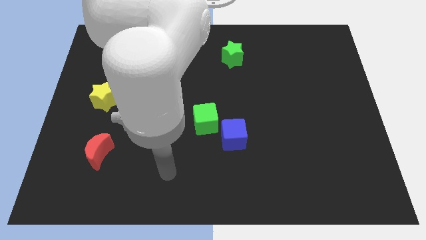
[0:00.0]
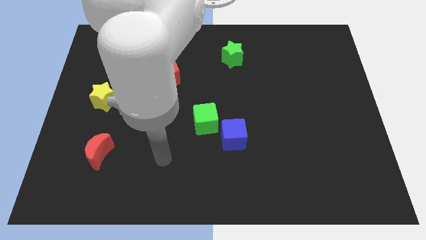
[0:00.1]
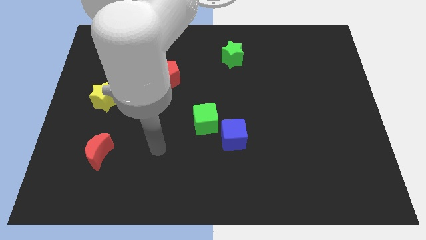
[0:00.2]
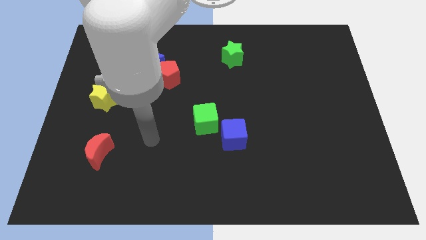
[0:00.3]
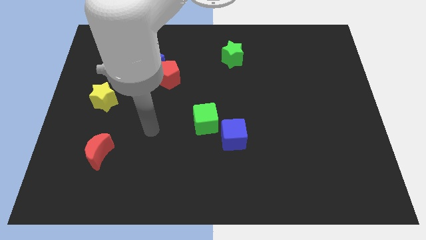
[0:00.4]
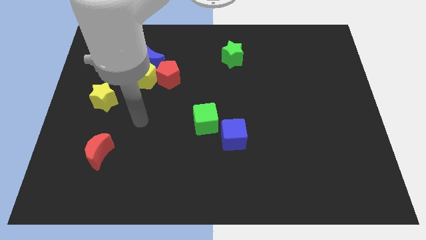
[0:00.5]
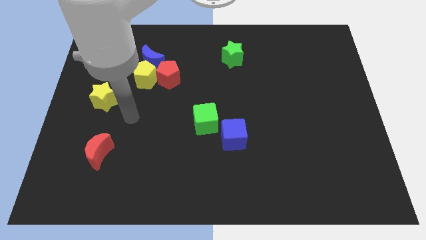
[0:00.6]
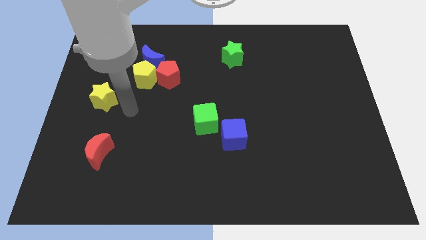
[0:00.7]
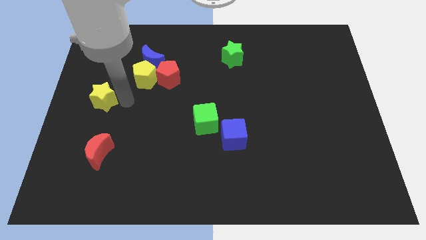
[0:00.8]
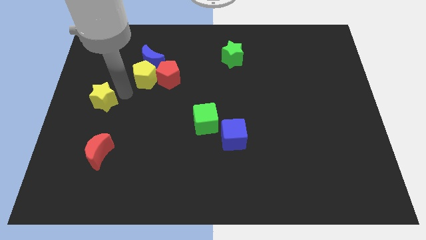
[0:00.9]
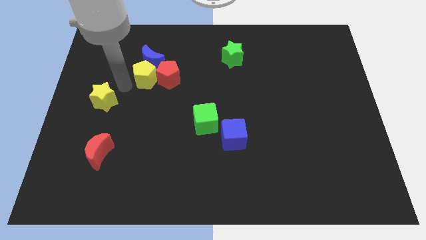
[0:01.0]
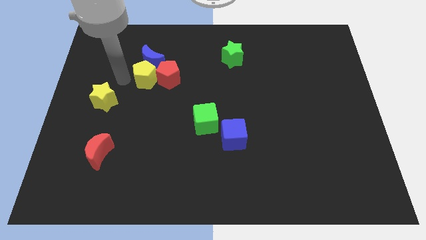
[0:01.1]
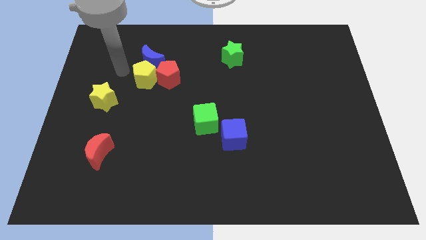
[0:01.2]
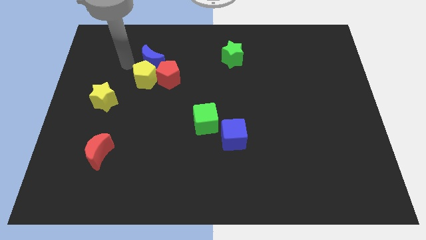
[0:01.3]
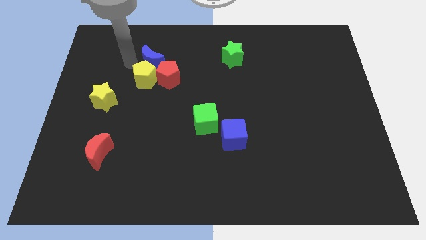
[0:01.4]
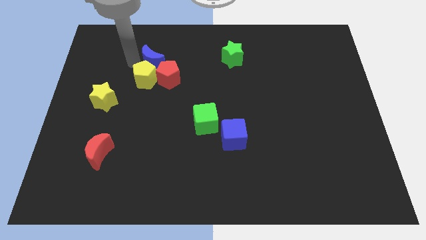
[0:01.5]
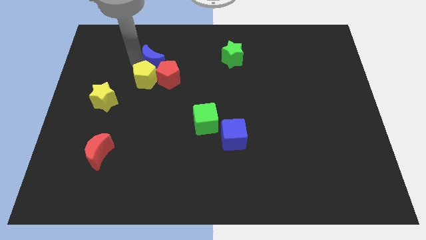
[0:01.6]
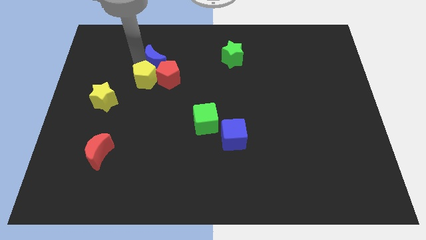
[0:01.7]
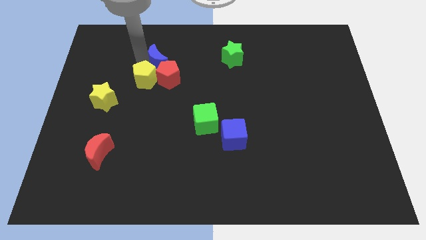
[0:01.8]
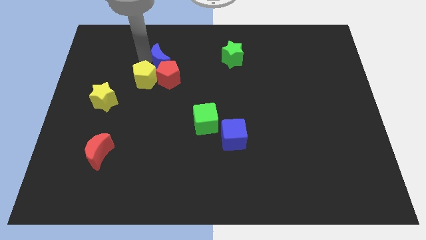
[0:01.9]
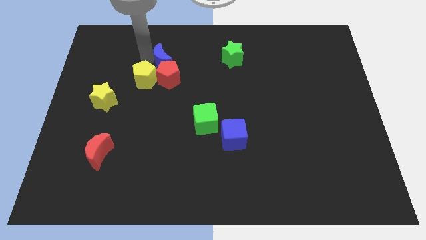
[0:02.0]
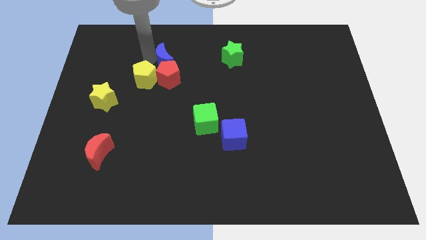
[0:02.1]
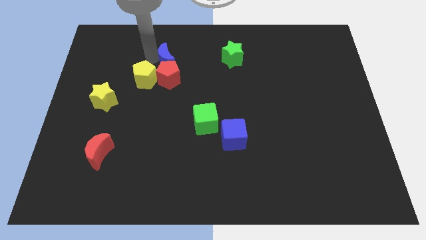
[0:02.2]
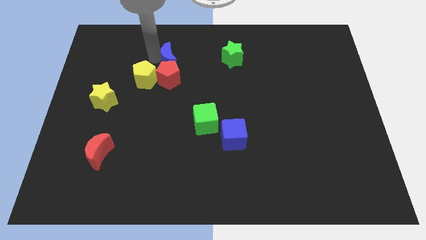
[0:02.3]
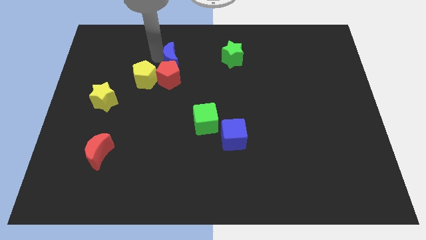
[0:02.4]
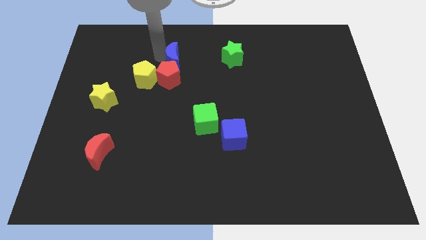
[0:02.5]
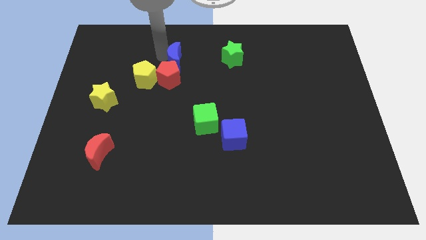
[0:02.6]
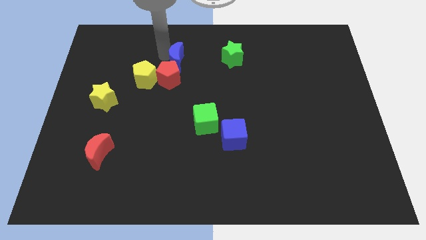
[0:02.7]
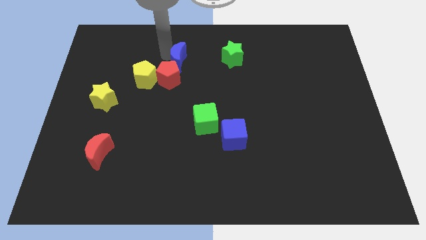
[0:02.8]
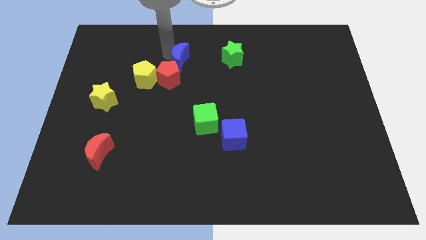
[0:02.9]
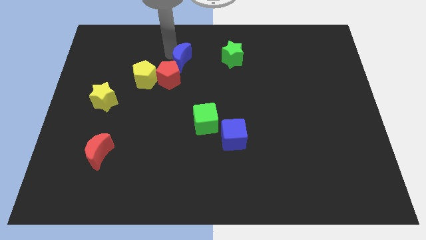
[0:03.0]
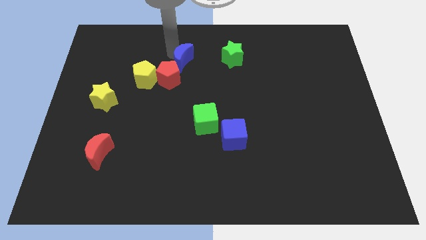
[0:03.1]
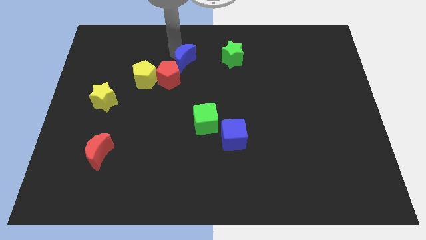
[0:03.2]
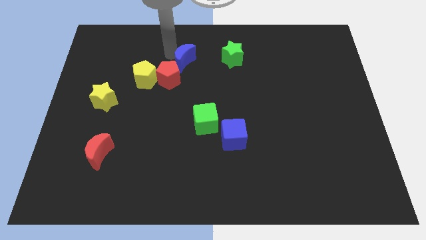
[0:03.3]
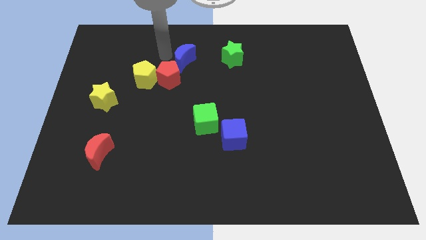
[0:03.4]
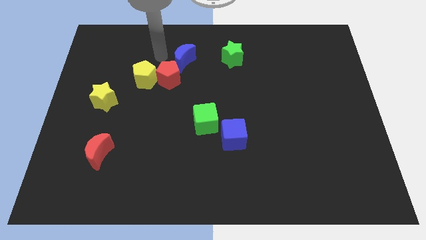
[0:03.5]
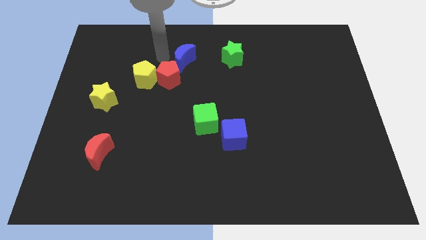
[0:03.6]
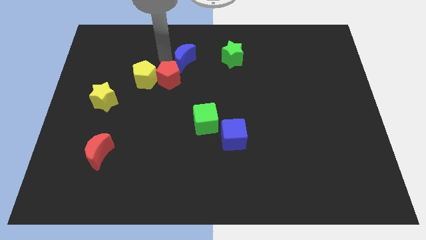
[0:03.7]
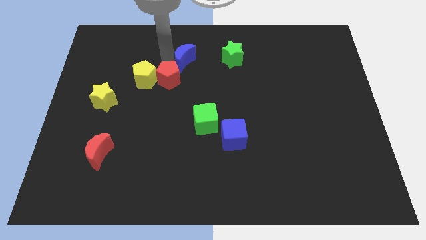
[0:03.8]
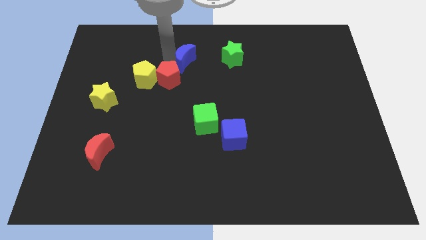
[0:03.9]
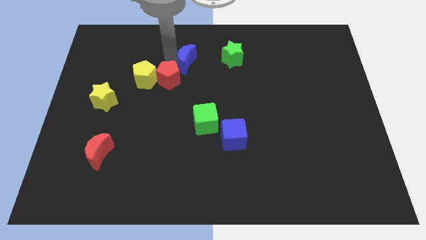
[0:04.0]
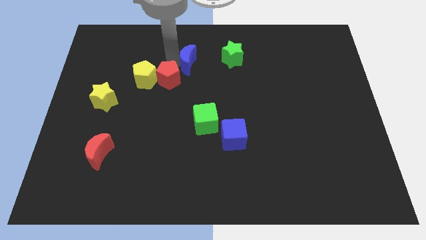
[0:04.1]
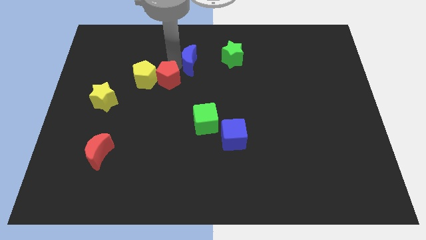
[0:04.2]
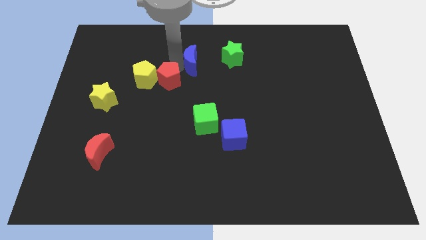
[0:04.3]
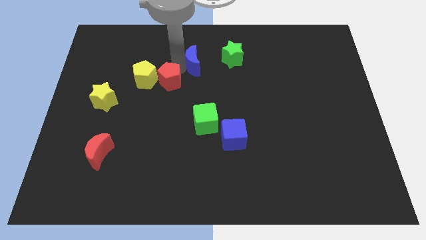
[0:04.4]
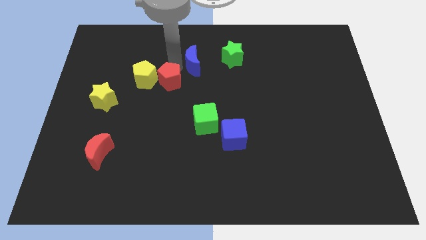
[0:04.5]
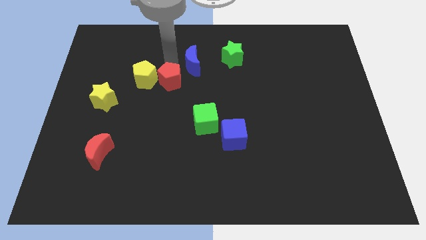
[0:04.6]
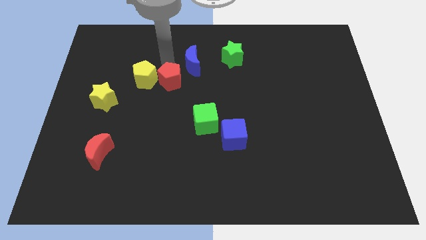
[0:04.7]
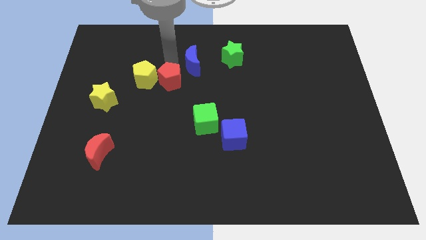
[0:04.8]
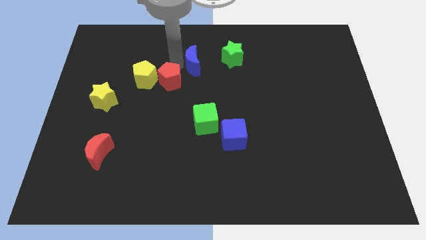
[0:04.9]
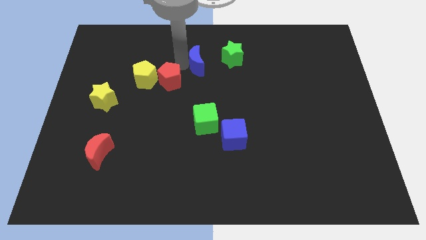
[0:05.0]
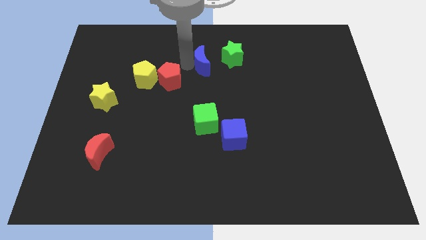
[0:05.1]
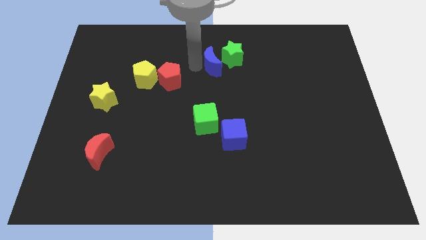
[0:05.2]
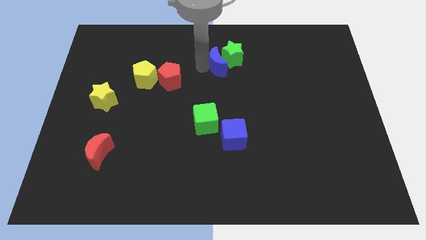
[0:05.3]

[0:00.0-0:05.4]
move the blue moon next to the green star

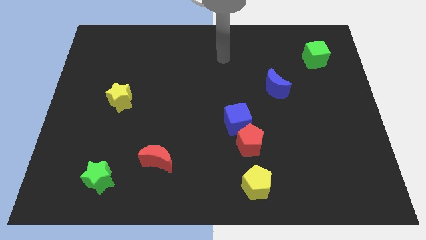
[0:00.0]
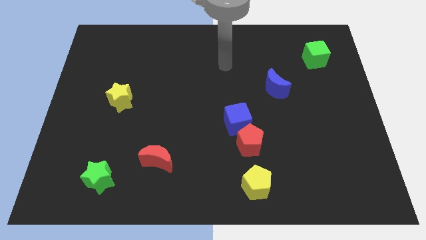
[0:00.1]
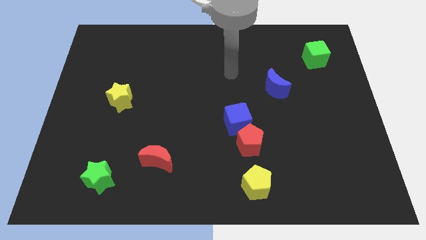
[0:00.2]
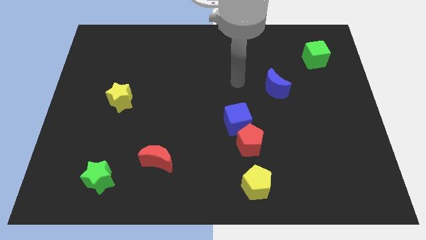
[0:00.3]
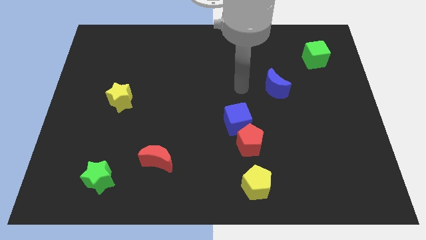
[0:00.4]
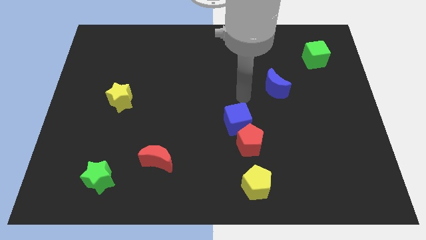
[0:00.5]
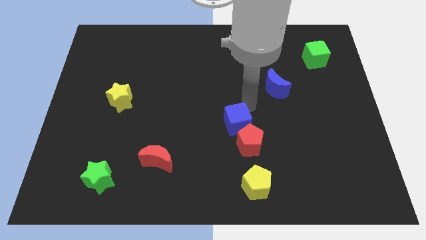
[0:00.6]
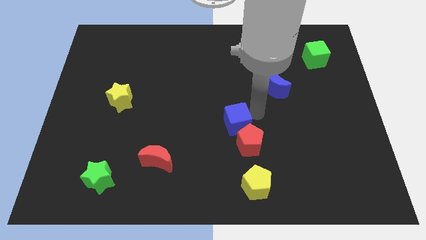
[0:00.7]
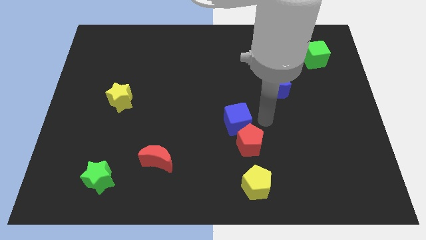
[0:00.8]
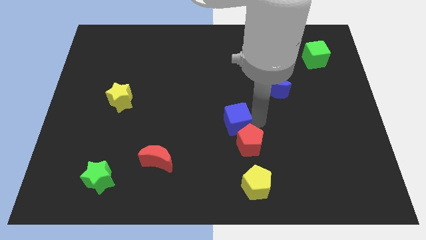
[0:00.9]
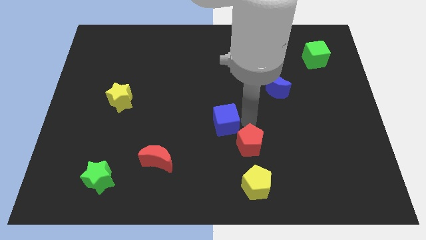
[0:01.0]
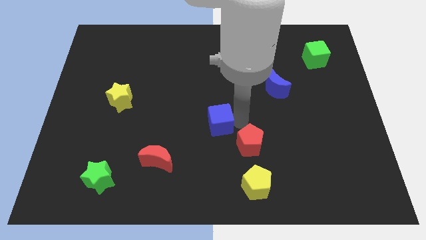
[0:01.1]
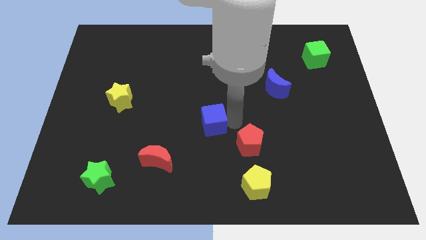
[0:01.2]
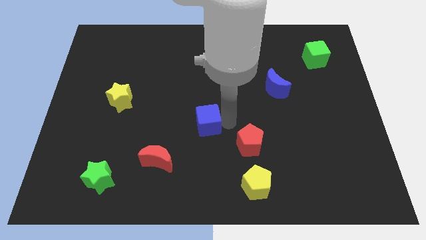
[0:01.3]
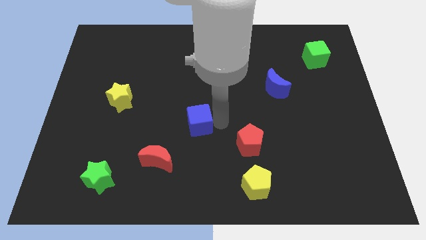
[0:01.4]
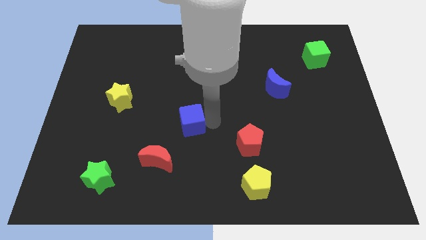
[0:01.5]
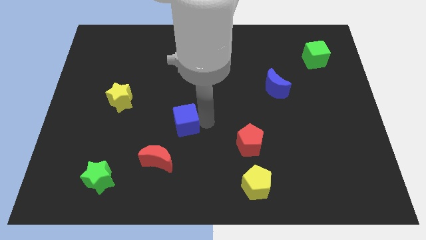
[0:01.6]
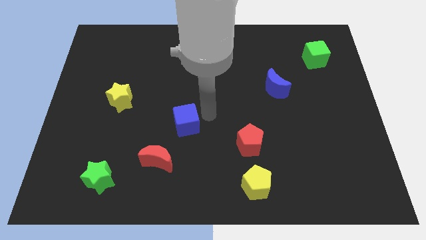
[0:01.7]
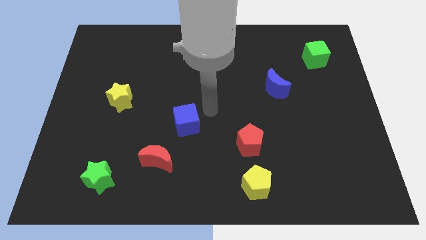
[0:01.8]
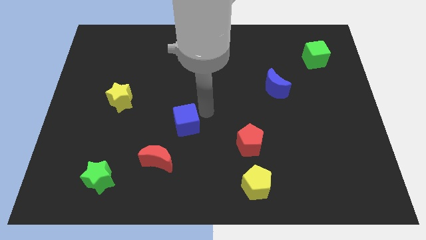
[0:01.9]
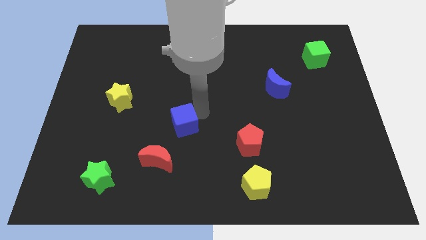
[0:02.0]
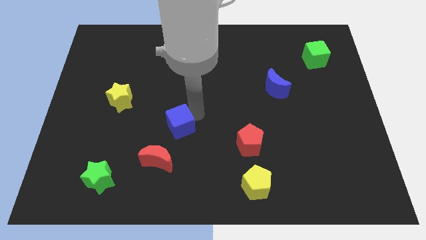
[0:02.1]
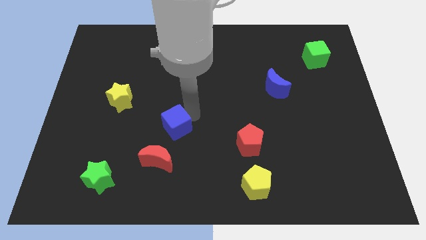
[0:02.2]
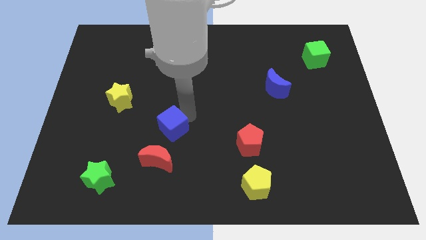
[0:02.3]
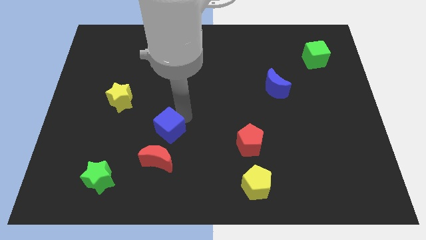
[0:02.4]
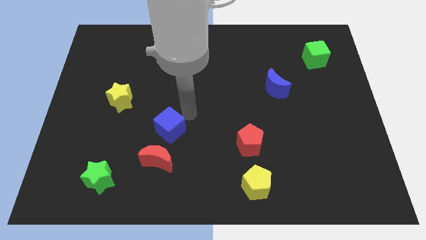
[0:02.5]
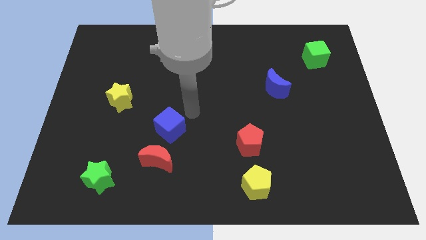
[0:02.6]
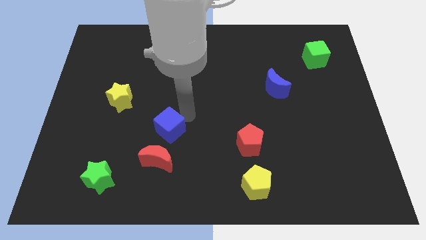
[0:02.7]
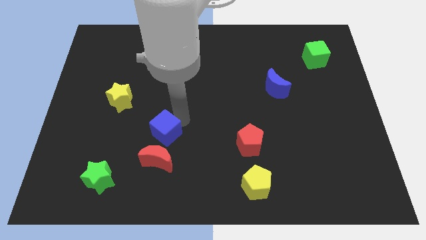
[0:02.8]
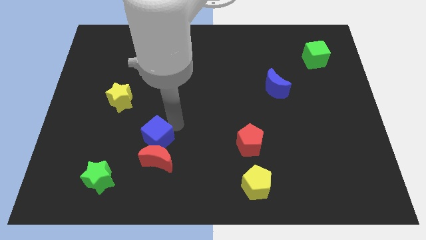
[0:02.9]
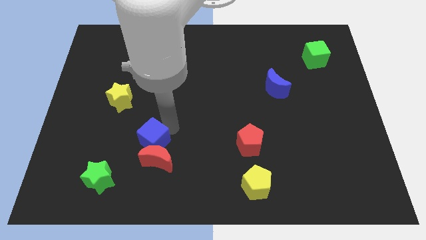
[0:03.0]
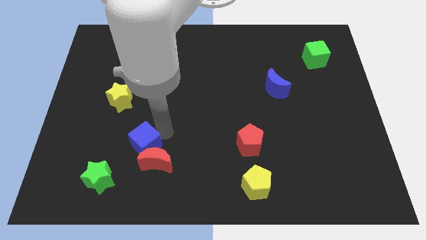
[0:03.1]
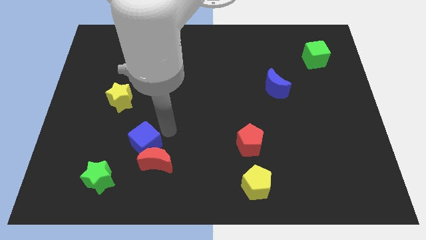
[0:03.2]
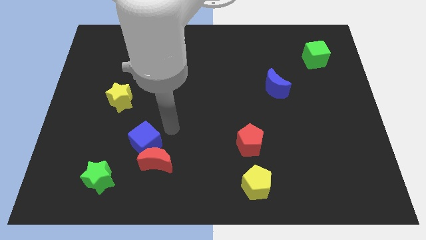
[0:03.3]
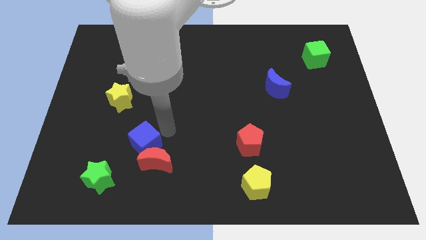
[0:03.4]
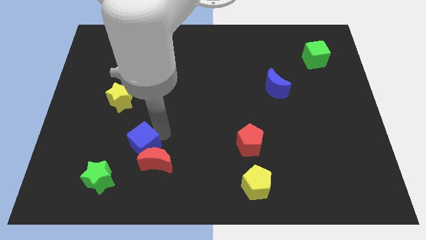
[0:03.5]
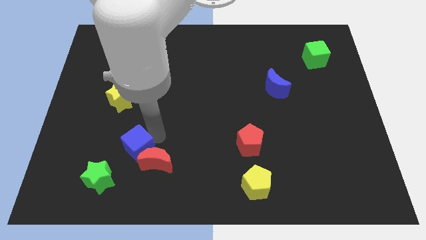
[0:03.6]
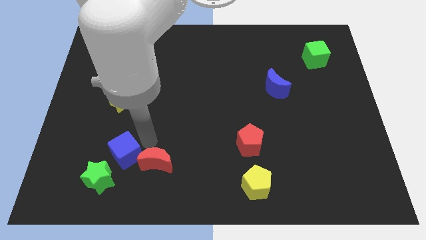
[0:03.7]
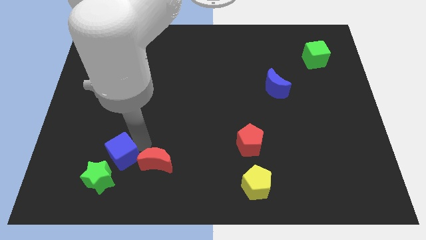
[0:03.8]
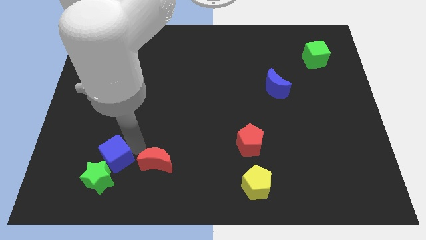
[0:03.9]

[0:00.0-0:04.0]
push the blue cube close to the green star
